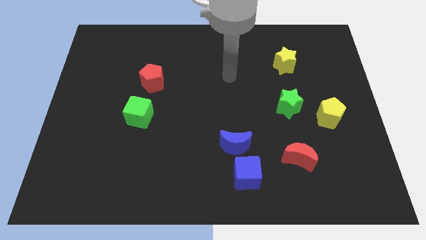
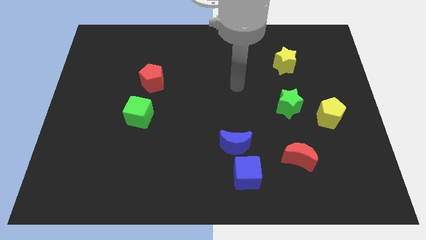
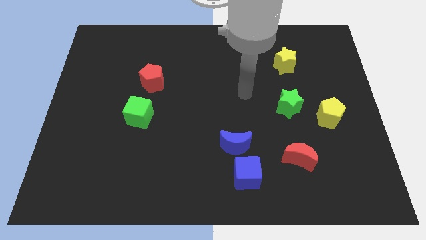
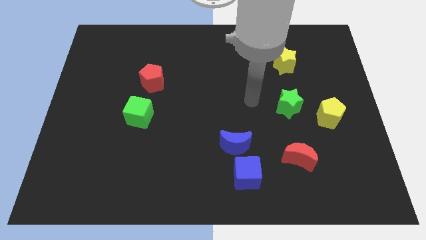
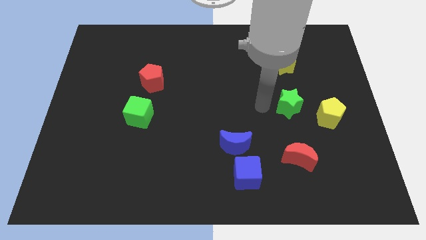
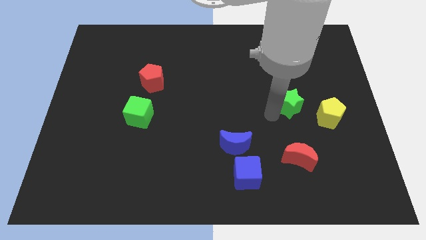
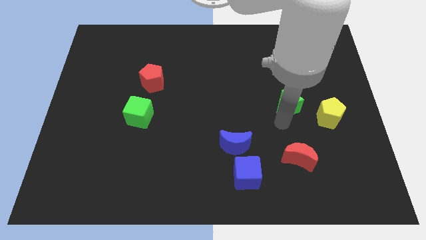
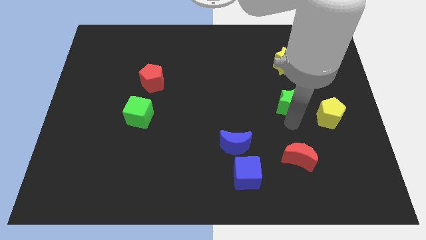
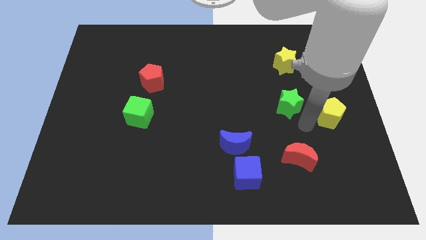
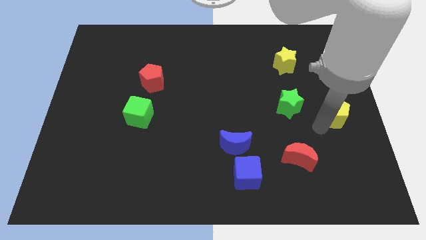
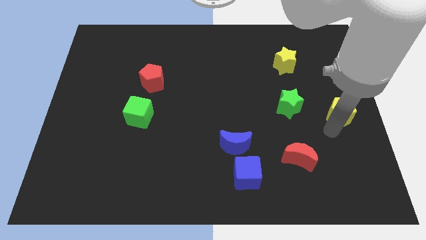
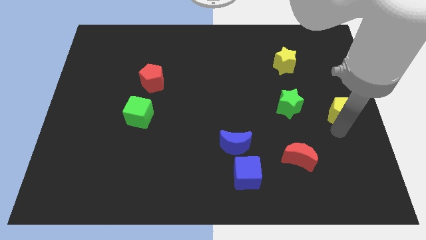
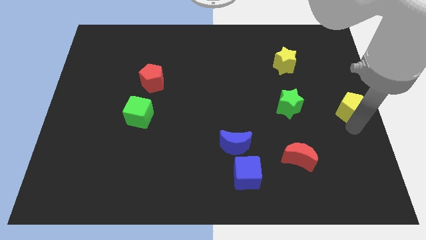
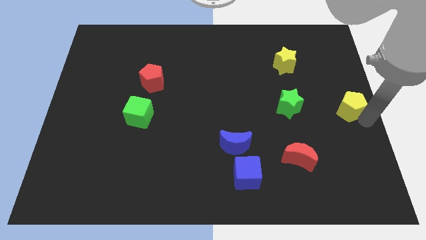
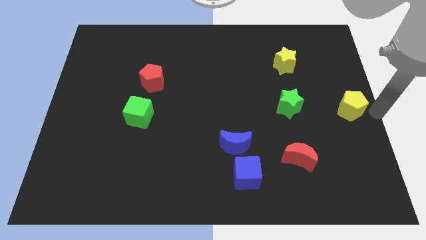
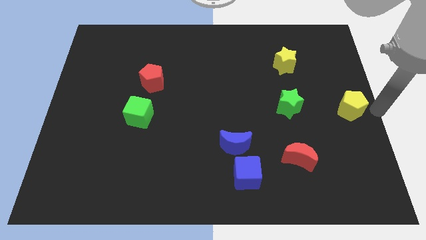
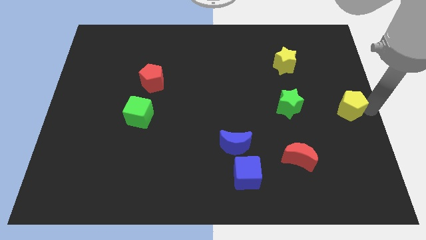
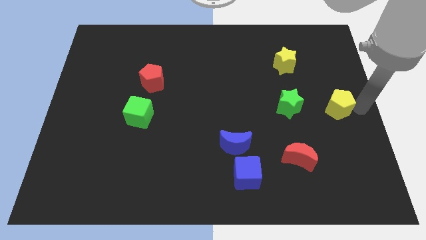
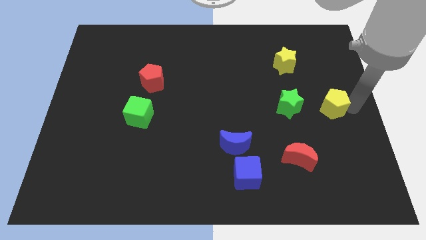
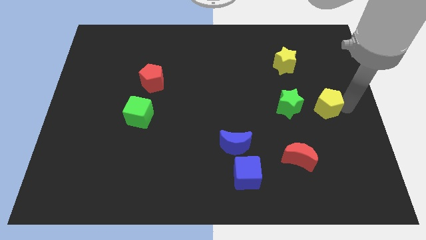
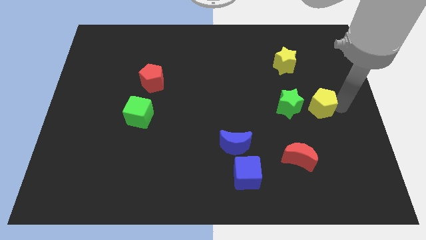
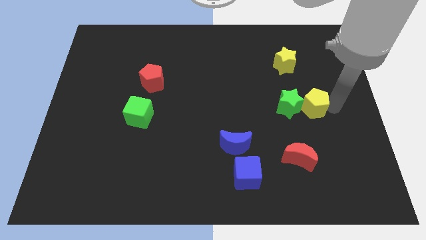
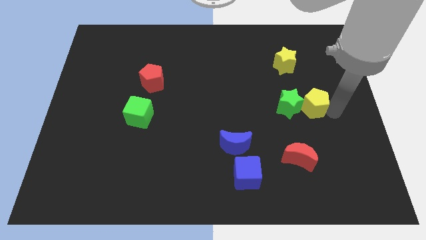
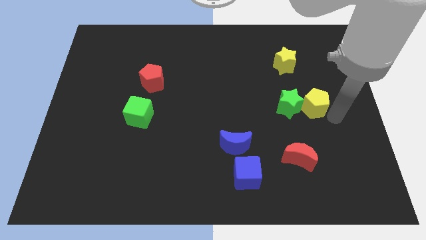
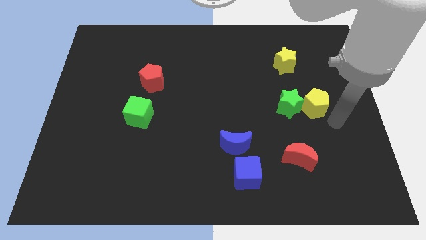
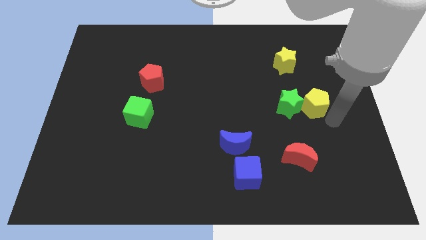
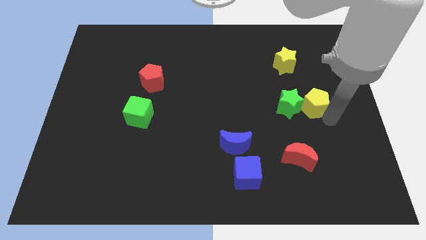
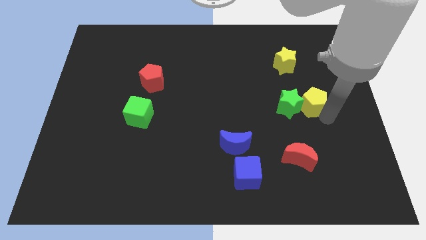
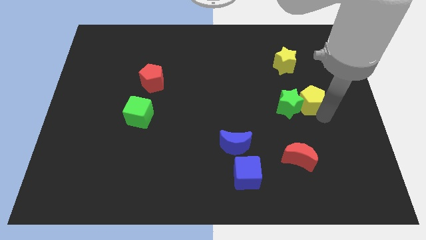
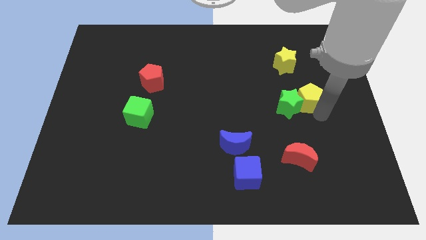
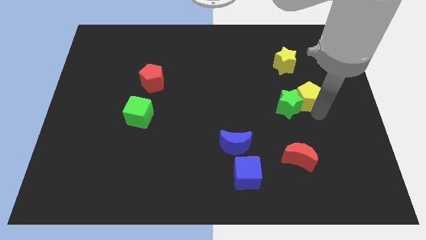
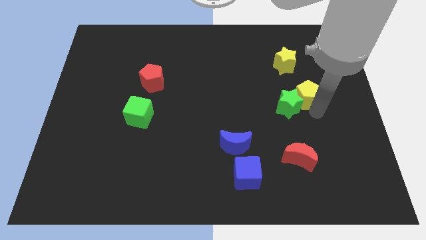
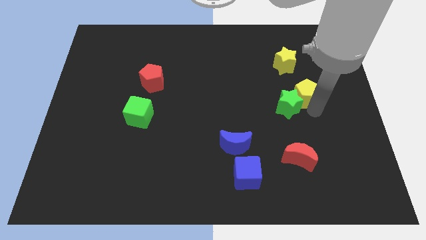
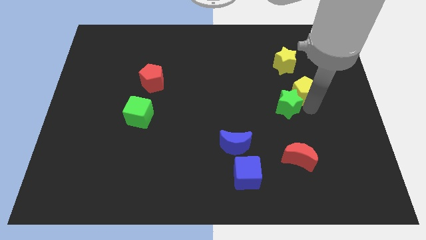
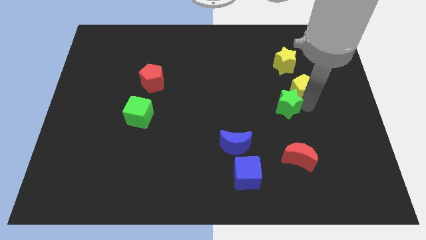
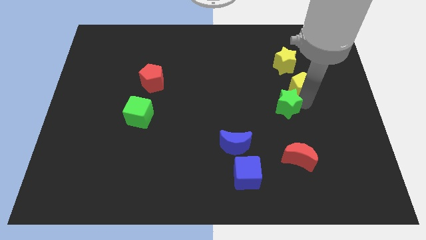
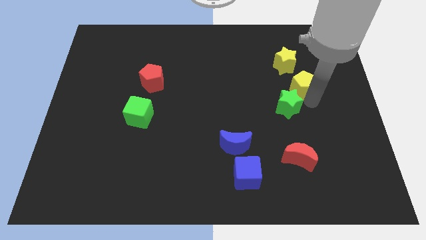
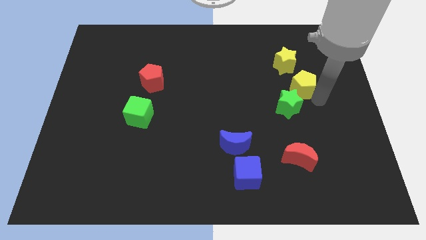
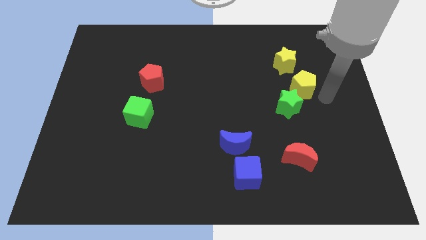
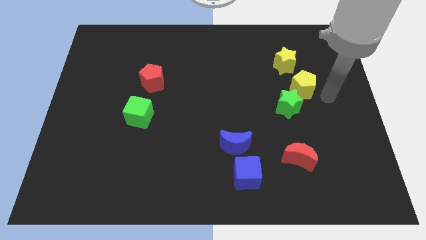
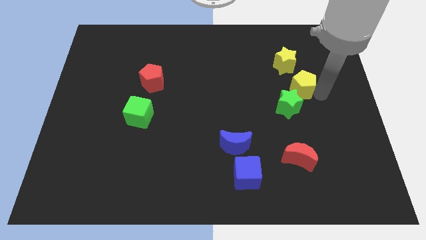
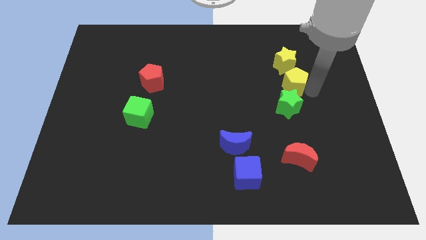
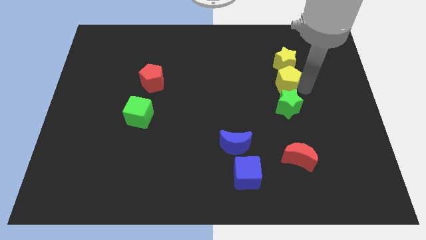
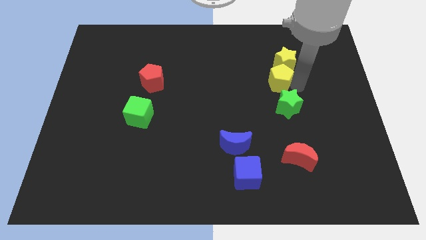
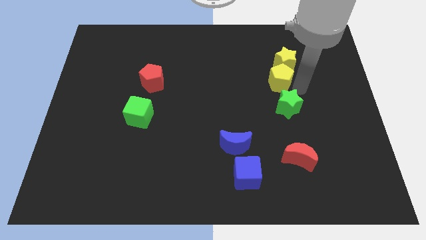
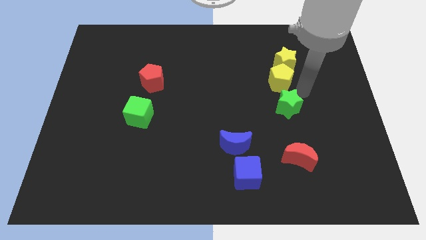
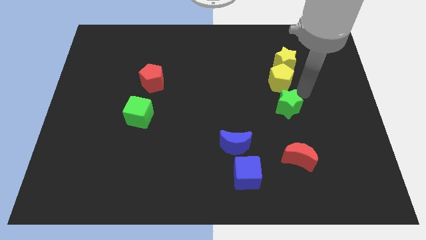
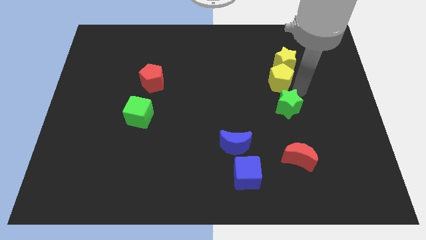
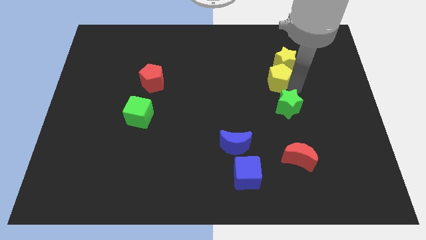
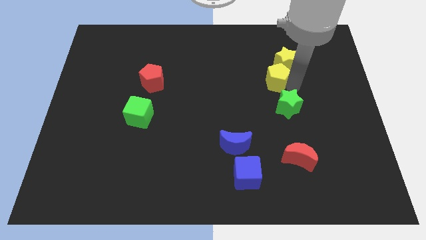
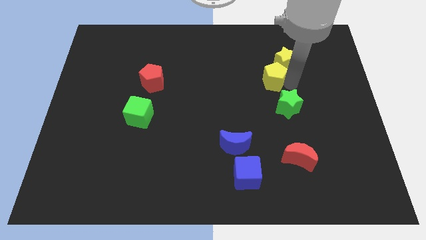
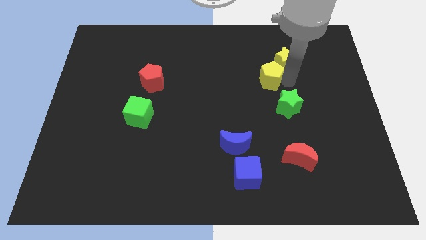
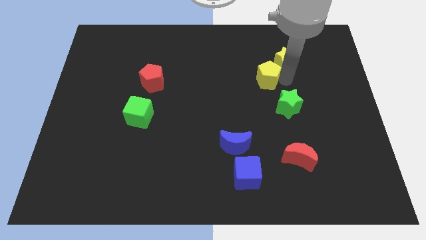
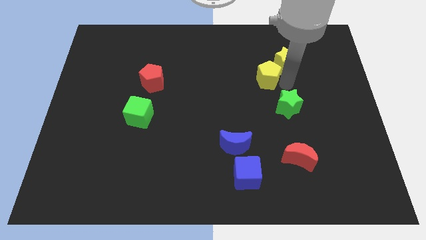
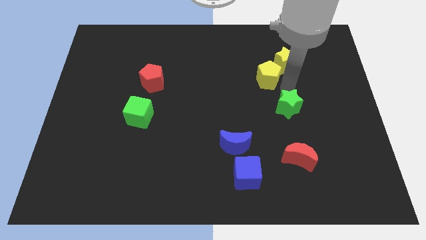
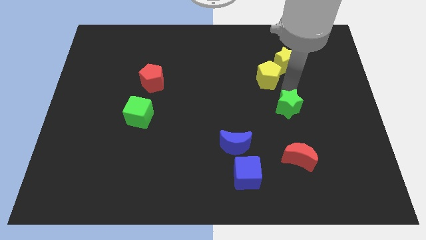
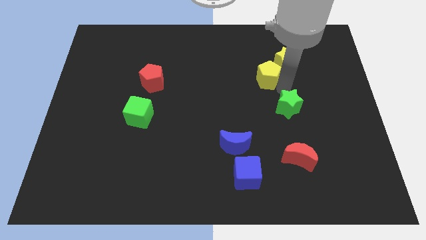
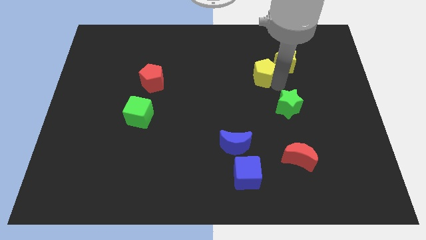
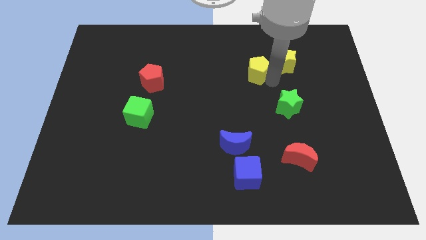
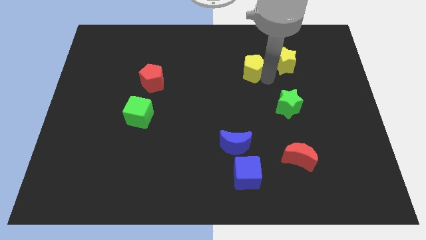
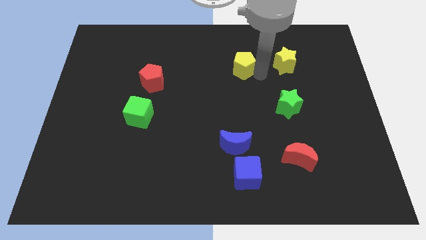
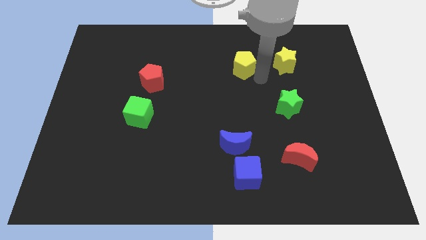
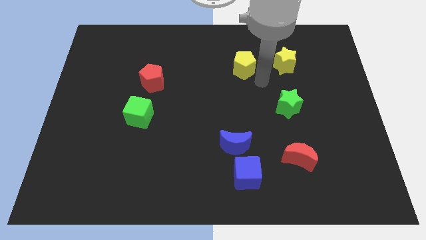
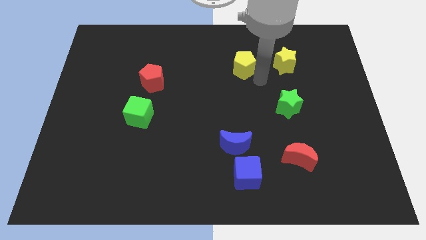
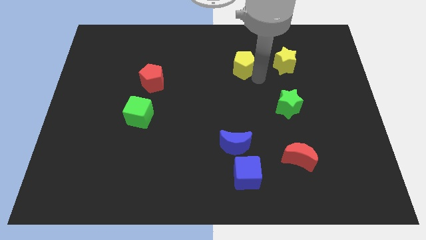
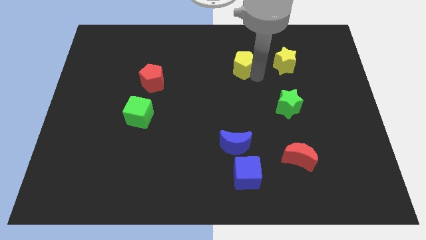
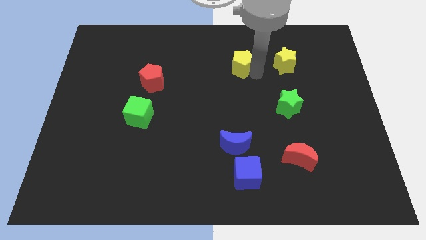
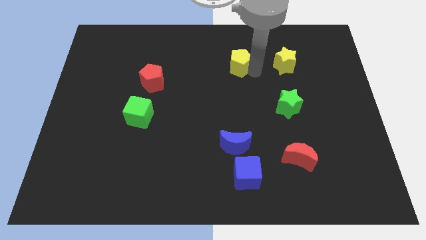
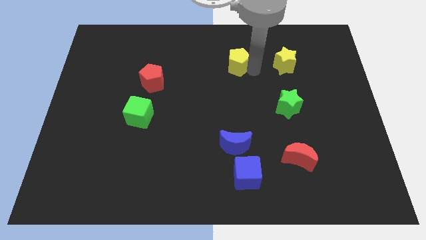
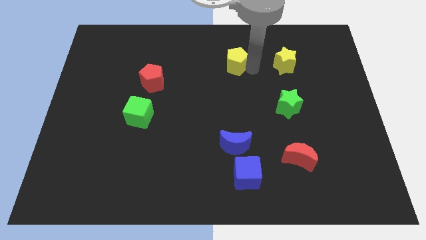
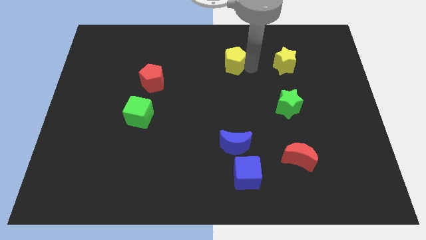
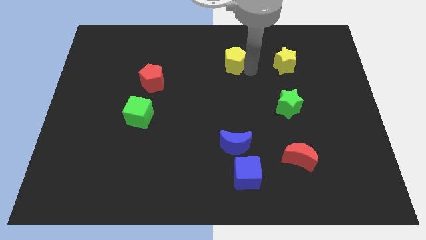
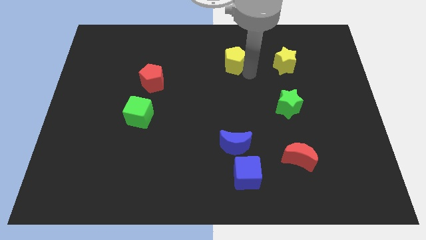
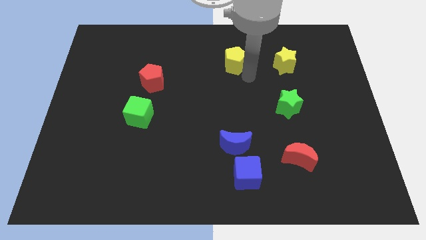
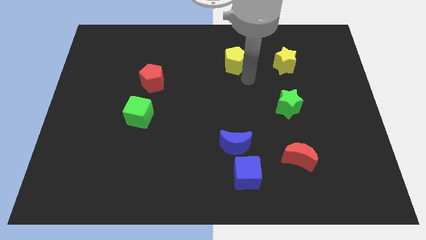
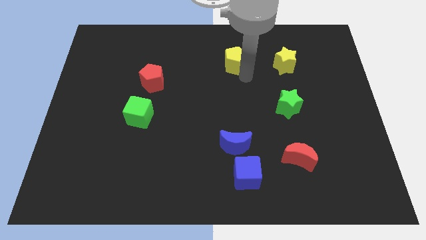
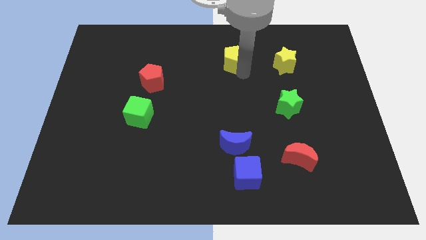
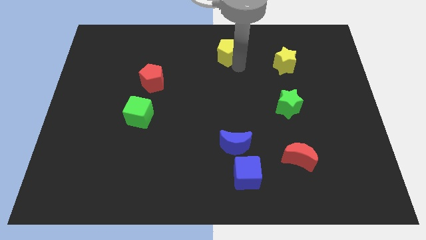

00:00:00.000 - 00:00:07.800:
push the yellow pentagon to the top
